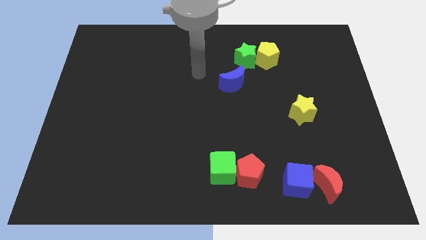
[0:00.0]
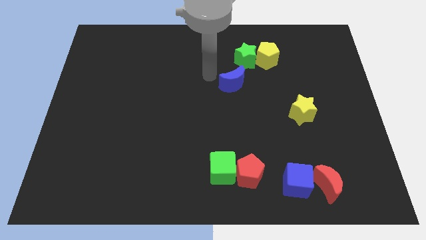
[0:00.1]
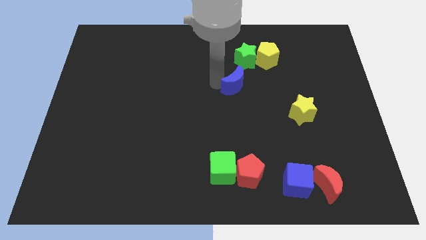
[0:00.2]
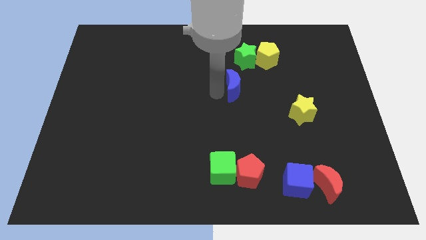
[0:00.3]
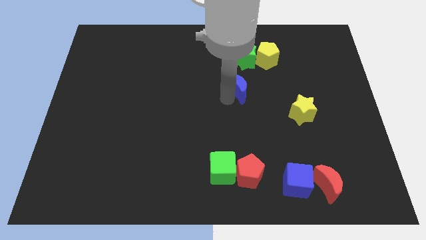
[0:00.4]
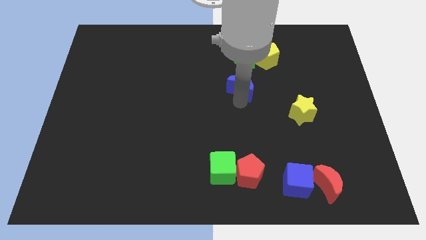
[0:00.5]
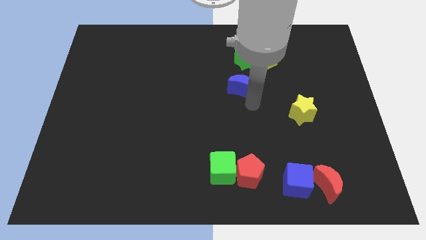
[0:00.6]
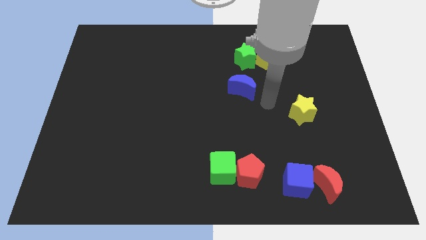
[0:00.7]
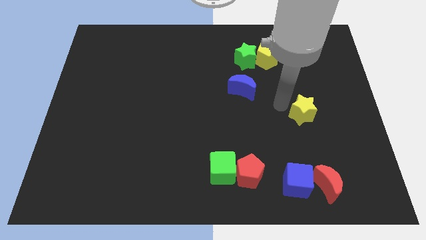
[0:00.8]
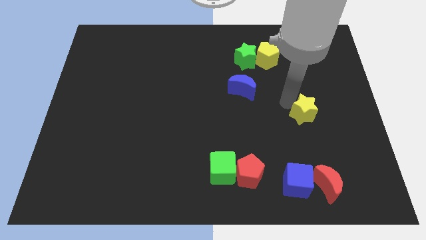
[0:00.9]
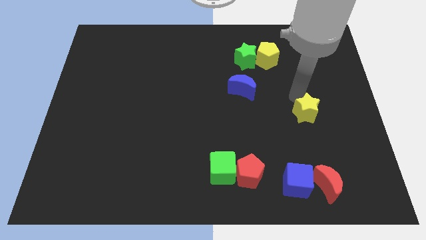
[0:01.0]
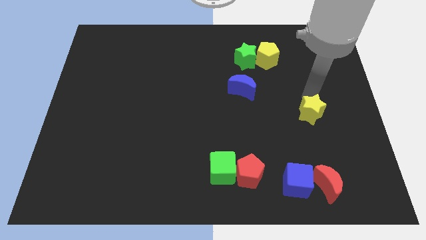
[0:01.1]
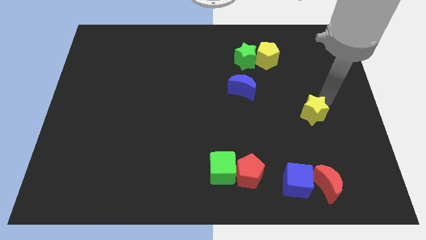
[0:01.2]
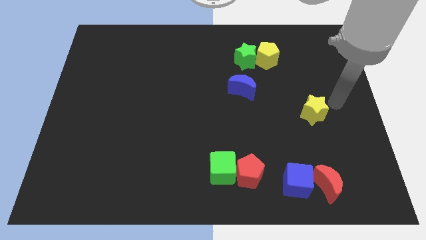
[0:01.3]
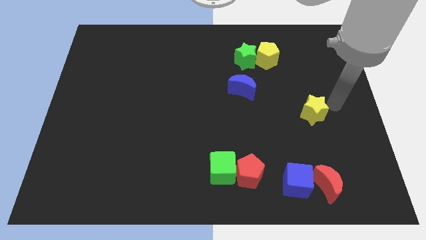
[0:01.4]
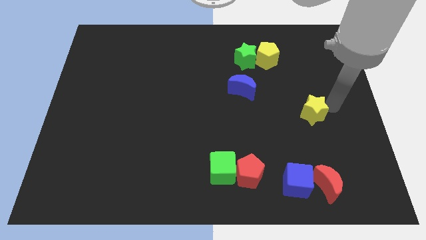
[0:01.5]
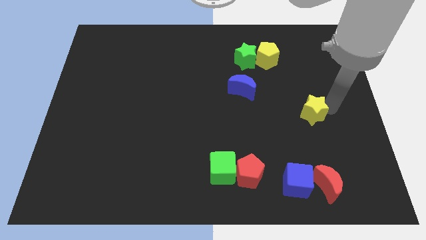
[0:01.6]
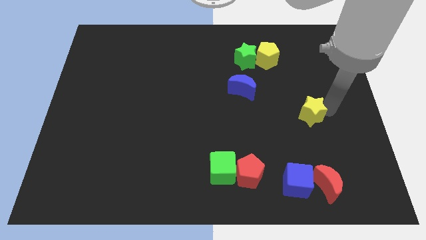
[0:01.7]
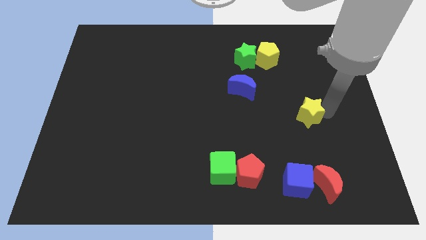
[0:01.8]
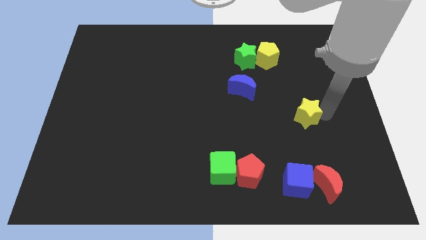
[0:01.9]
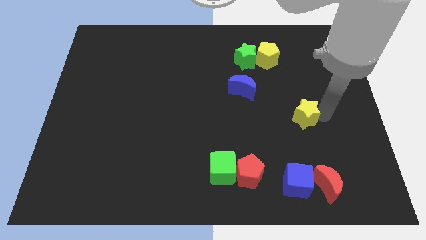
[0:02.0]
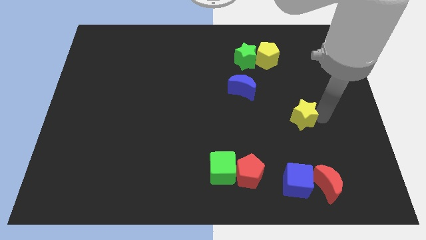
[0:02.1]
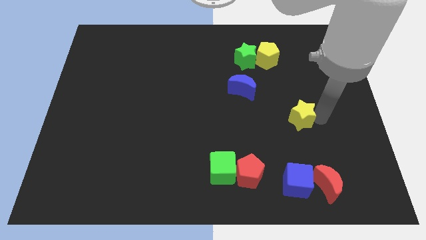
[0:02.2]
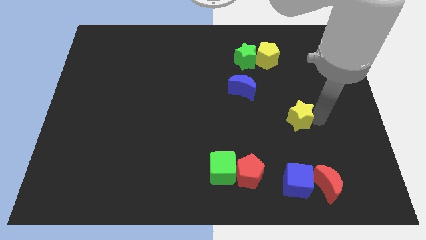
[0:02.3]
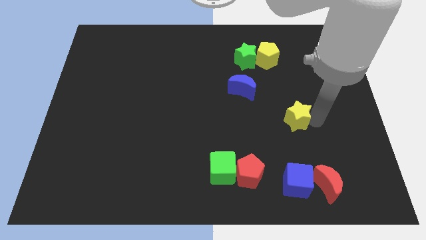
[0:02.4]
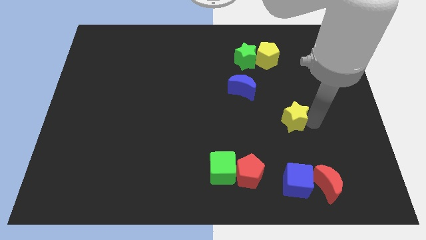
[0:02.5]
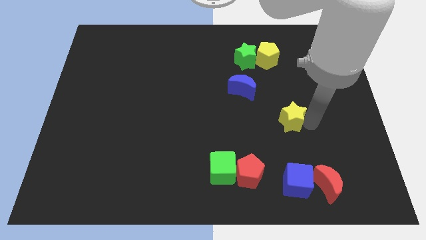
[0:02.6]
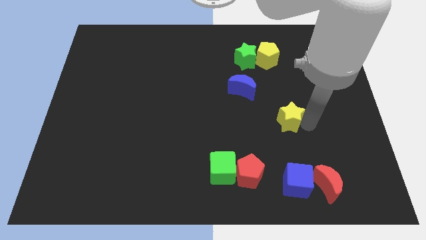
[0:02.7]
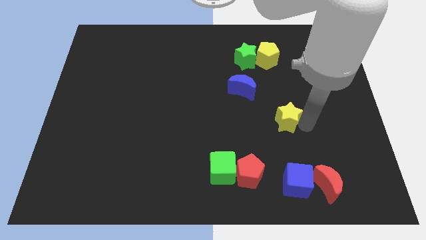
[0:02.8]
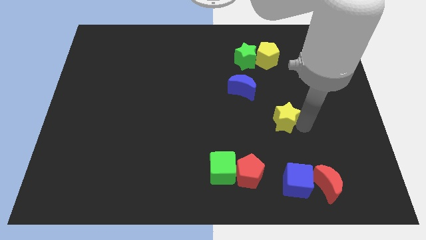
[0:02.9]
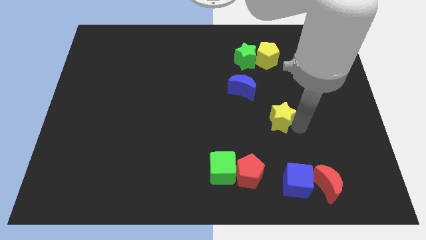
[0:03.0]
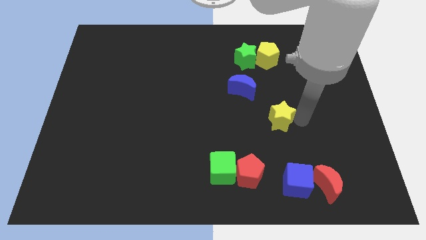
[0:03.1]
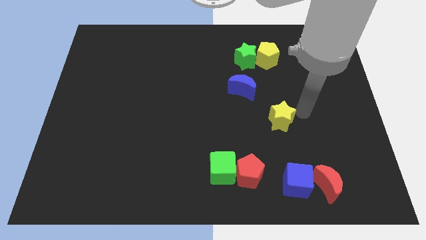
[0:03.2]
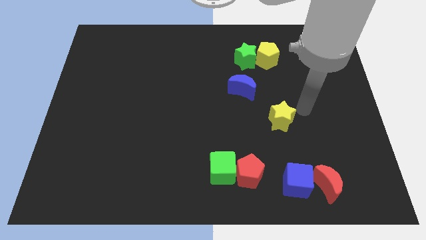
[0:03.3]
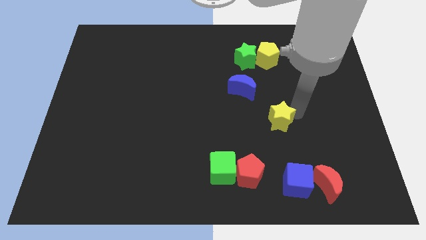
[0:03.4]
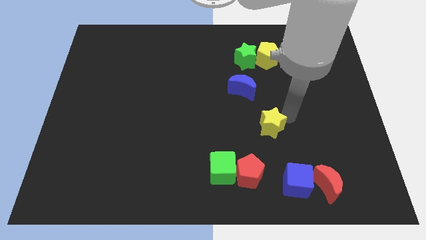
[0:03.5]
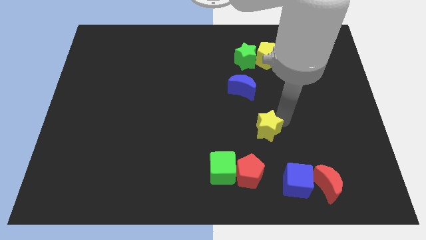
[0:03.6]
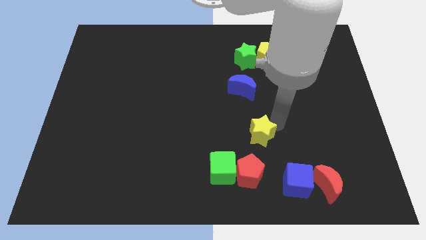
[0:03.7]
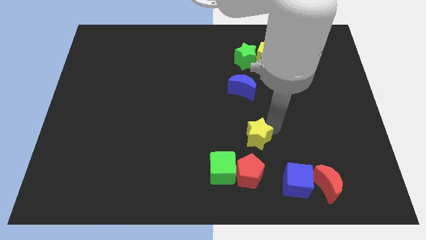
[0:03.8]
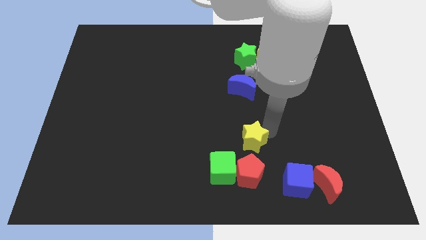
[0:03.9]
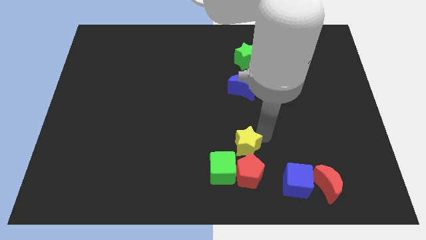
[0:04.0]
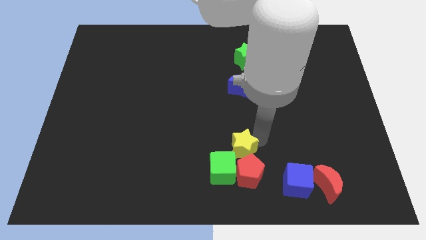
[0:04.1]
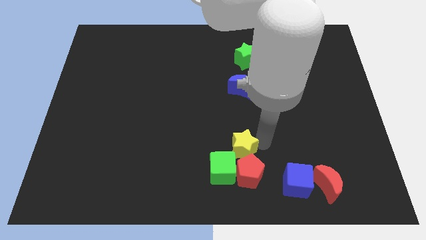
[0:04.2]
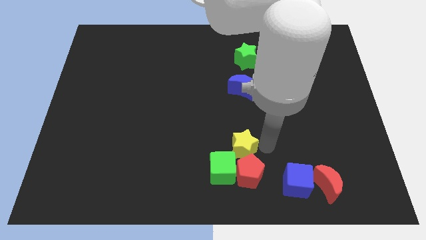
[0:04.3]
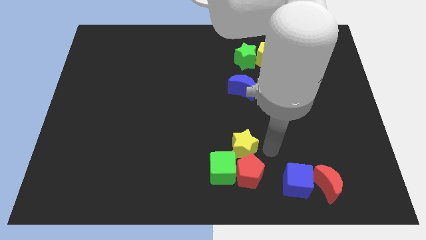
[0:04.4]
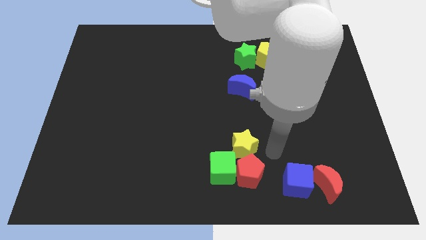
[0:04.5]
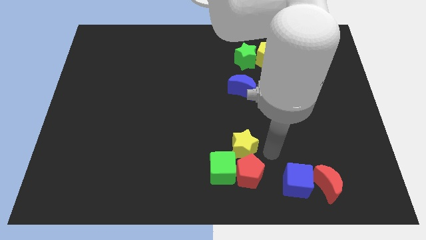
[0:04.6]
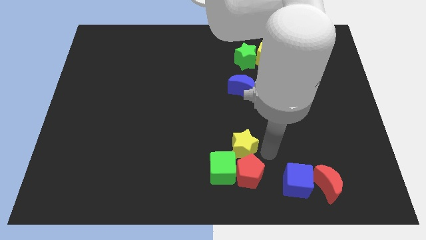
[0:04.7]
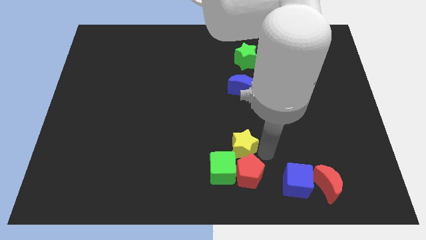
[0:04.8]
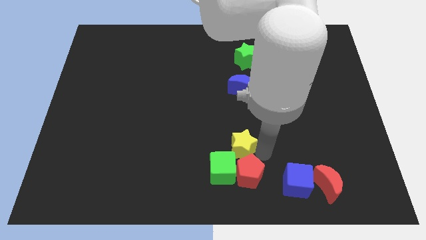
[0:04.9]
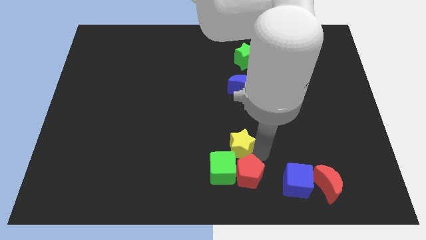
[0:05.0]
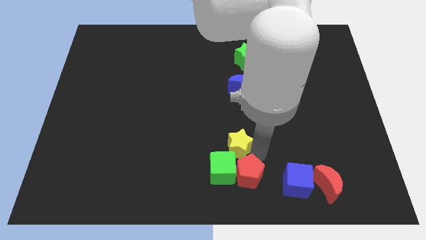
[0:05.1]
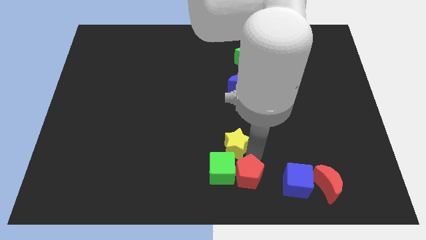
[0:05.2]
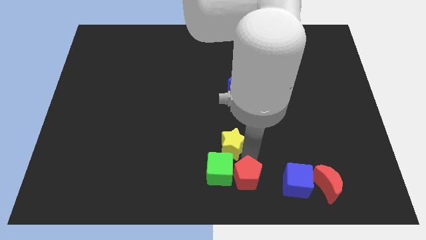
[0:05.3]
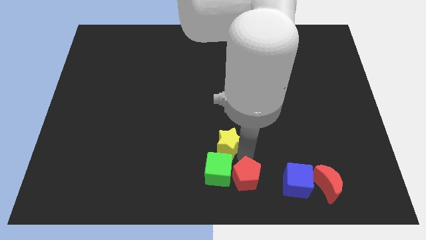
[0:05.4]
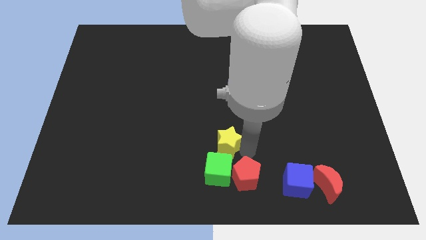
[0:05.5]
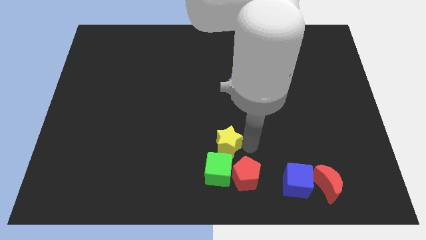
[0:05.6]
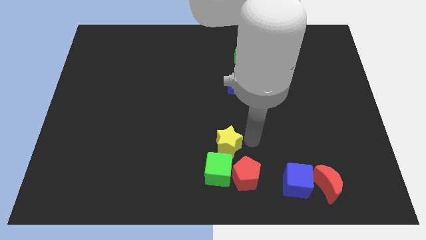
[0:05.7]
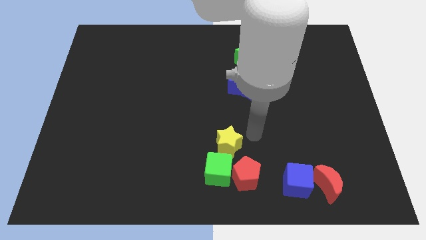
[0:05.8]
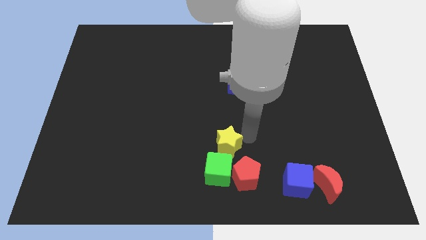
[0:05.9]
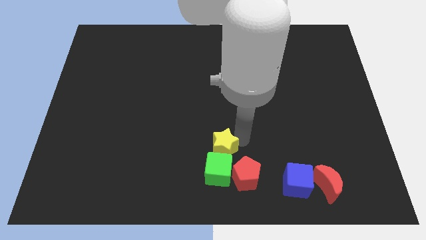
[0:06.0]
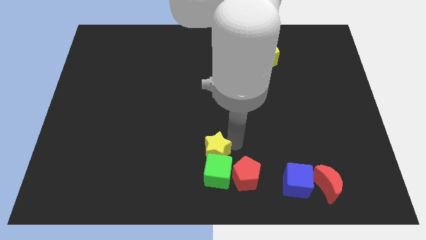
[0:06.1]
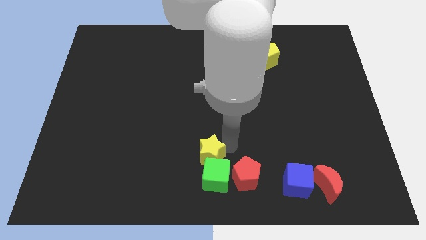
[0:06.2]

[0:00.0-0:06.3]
push the yellow star just left of the red pentagon

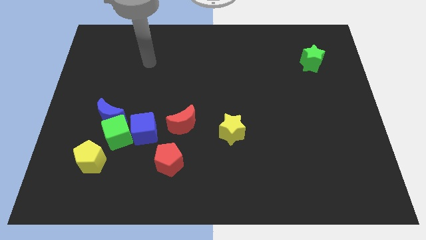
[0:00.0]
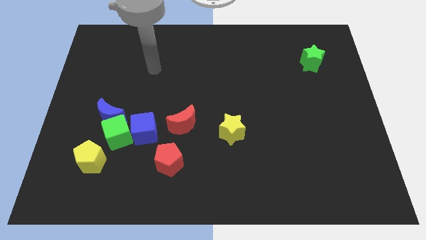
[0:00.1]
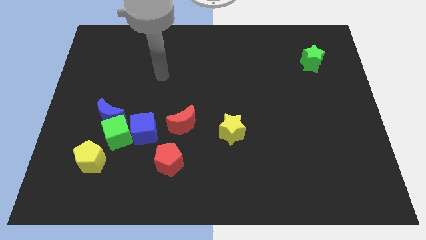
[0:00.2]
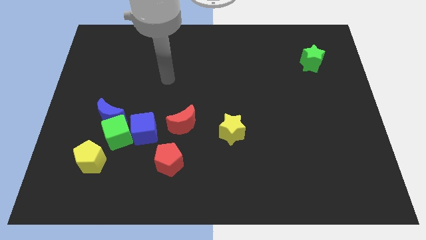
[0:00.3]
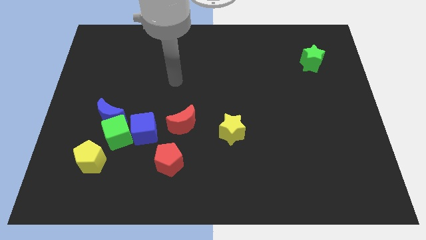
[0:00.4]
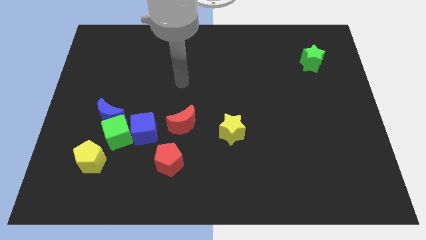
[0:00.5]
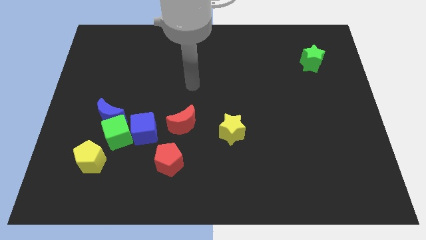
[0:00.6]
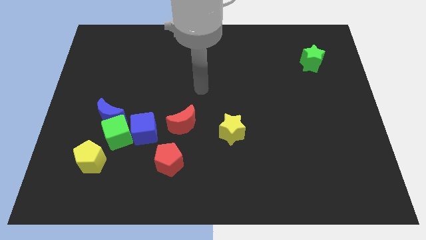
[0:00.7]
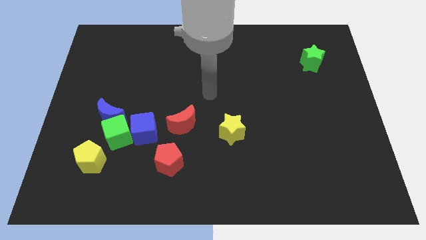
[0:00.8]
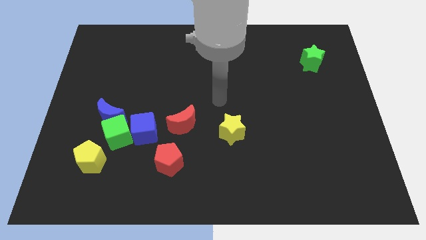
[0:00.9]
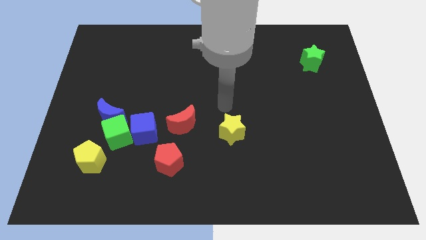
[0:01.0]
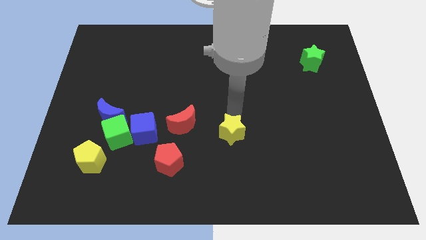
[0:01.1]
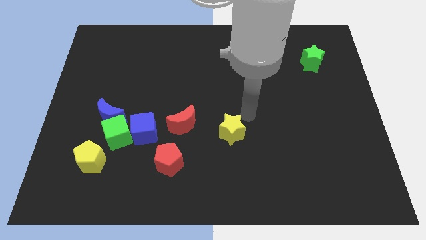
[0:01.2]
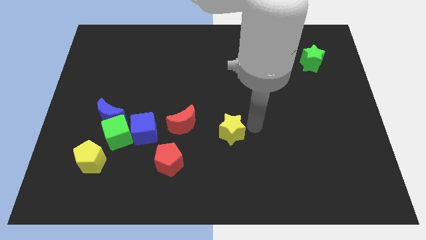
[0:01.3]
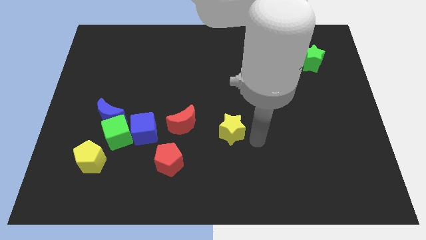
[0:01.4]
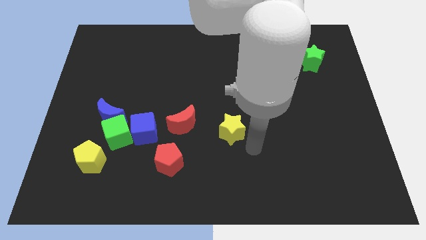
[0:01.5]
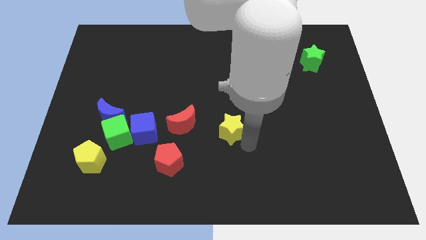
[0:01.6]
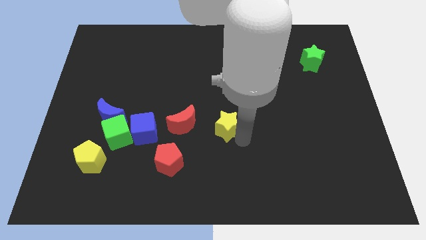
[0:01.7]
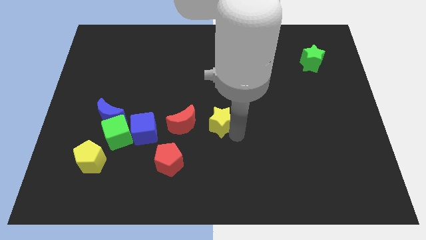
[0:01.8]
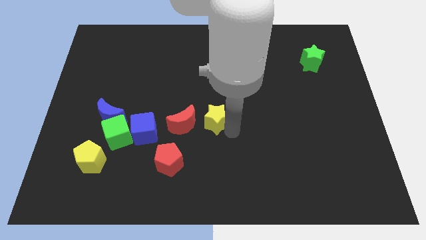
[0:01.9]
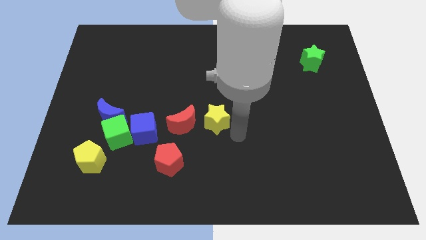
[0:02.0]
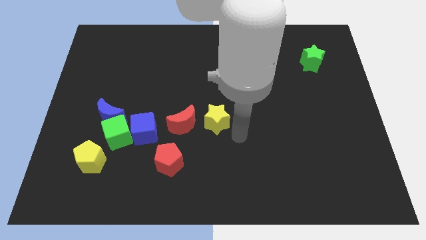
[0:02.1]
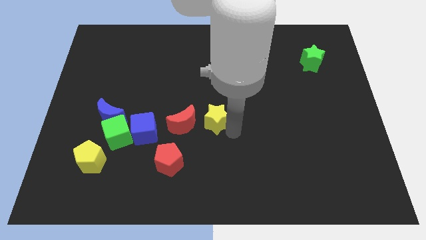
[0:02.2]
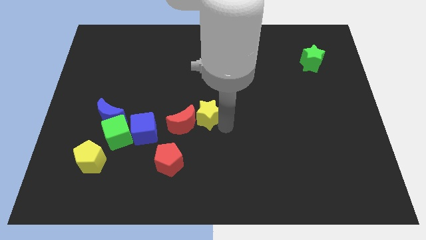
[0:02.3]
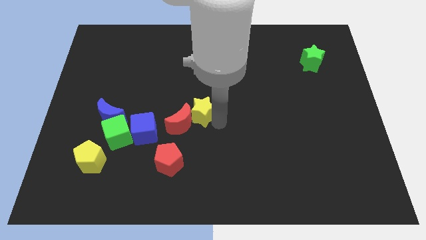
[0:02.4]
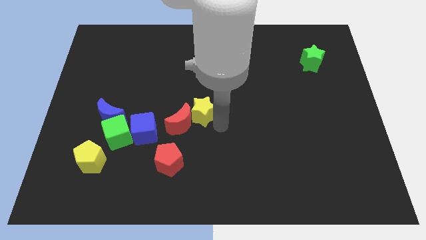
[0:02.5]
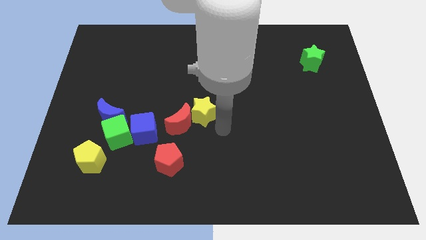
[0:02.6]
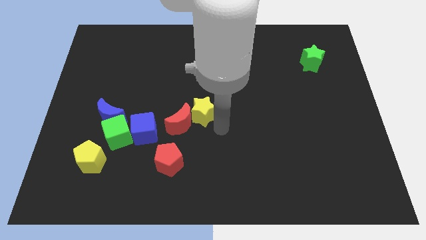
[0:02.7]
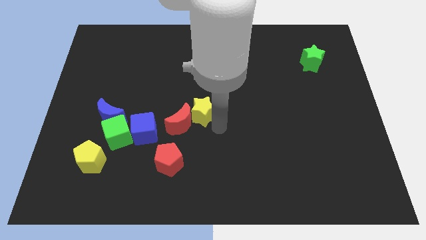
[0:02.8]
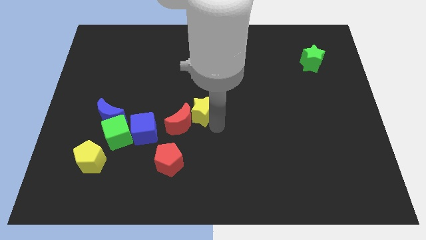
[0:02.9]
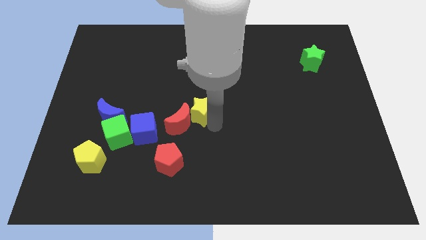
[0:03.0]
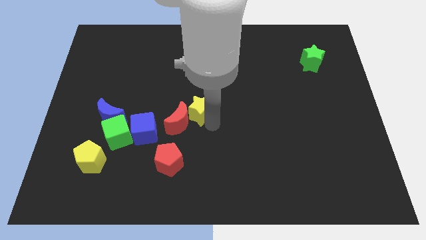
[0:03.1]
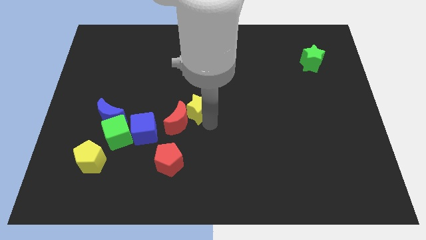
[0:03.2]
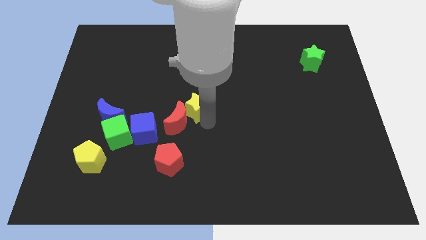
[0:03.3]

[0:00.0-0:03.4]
push the yellow star to the top side of the red moon
